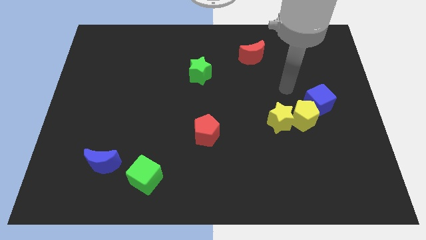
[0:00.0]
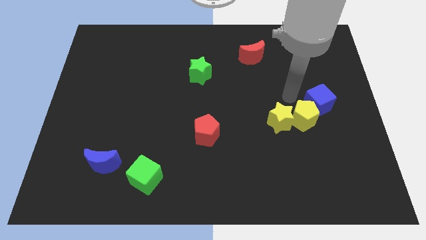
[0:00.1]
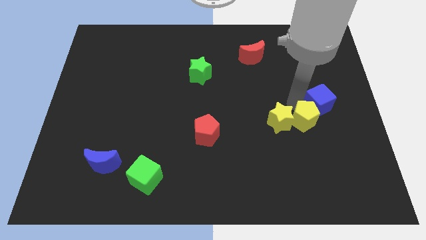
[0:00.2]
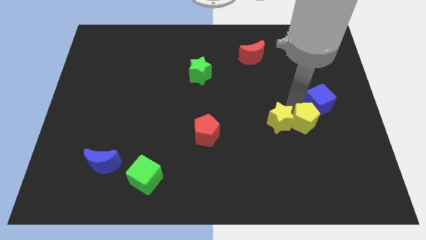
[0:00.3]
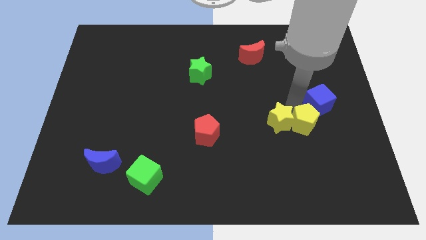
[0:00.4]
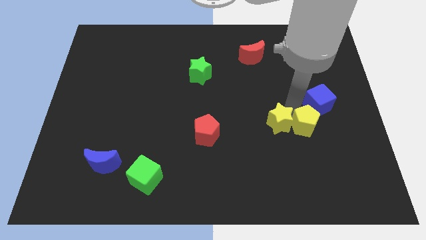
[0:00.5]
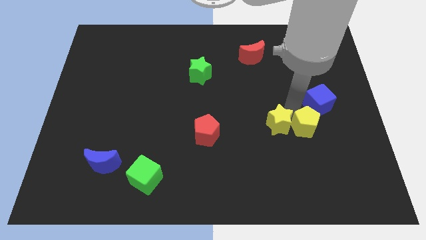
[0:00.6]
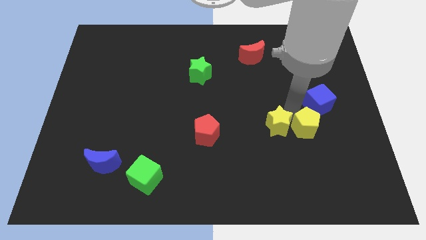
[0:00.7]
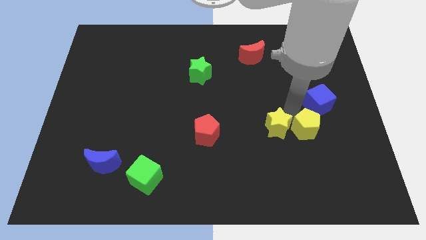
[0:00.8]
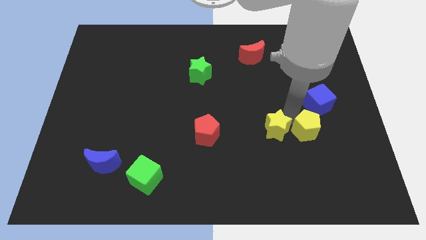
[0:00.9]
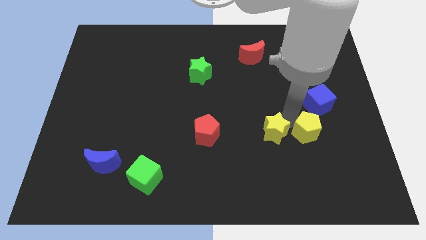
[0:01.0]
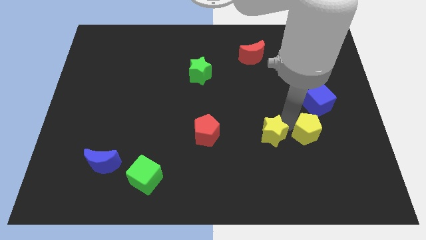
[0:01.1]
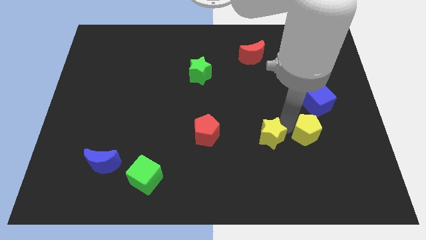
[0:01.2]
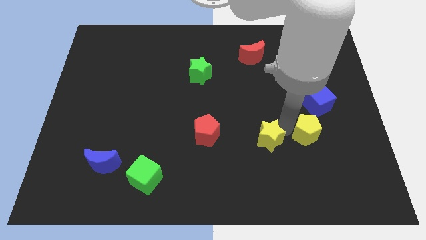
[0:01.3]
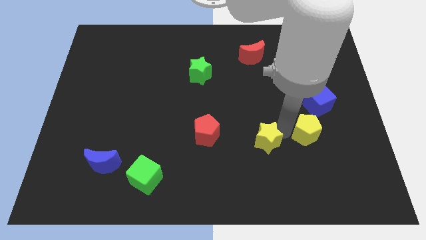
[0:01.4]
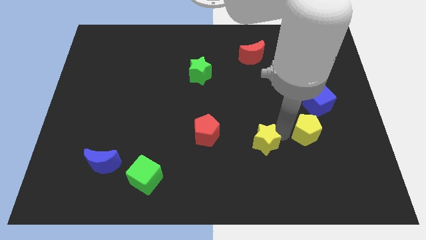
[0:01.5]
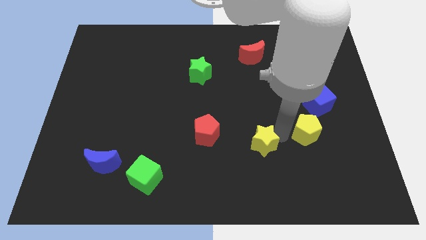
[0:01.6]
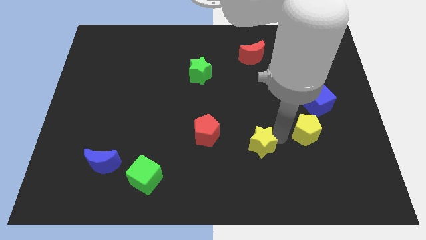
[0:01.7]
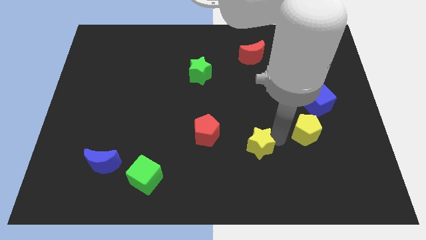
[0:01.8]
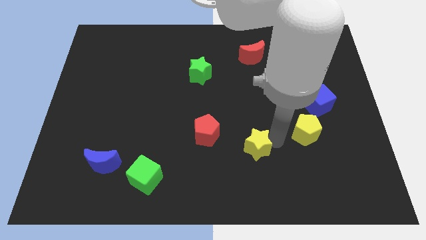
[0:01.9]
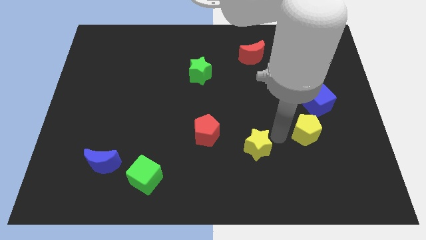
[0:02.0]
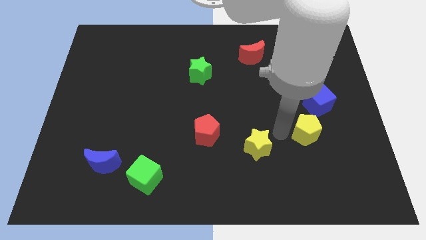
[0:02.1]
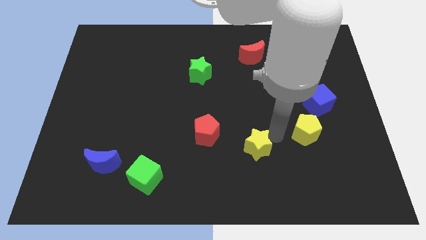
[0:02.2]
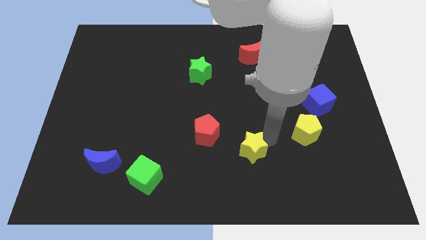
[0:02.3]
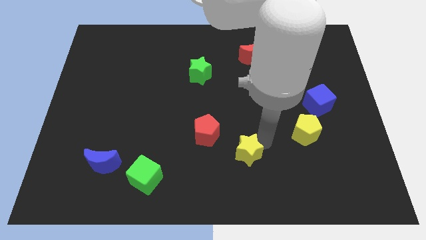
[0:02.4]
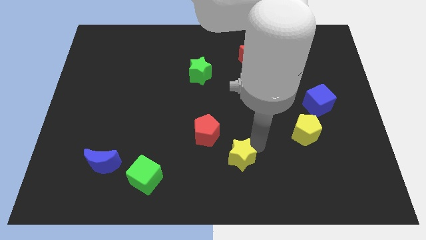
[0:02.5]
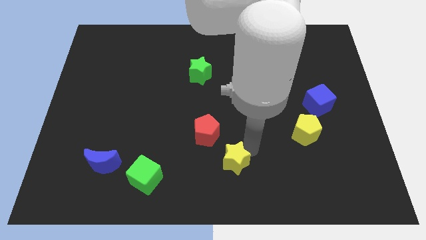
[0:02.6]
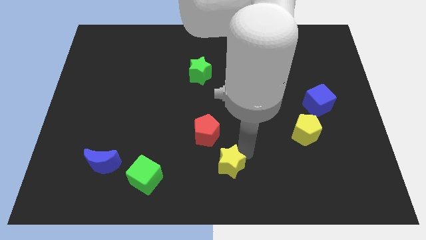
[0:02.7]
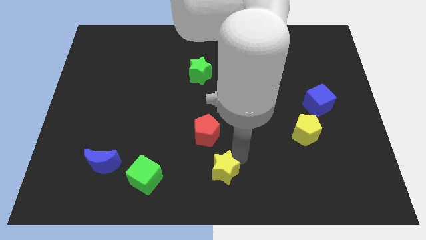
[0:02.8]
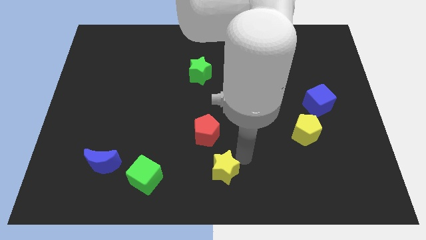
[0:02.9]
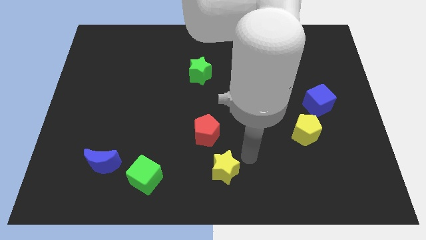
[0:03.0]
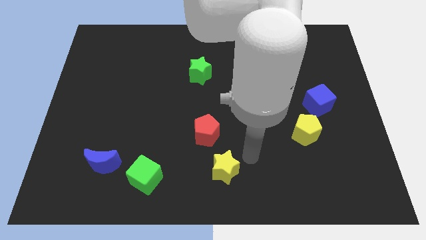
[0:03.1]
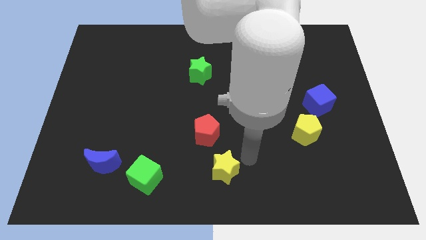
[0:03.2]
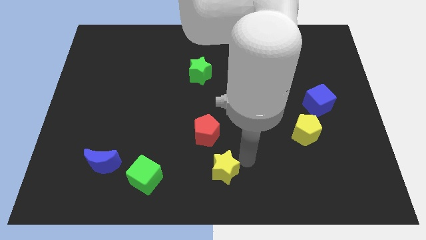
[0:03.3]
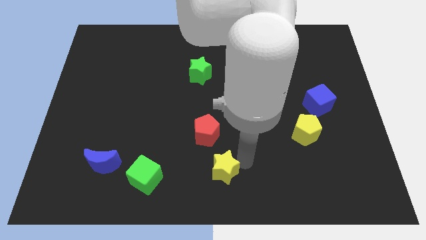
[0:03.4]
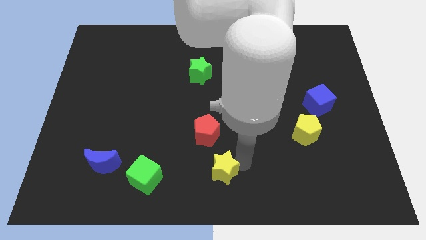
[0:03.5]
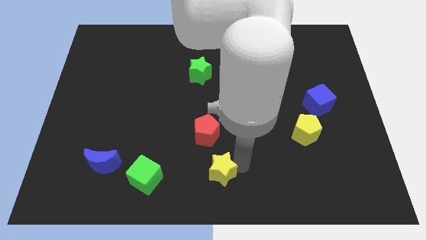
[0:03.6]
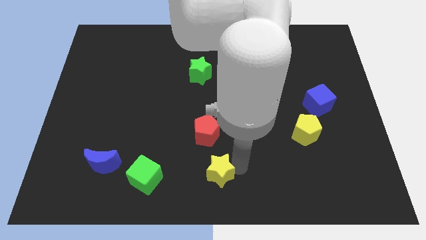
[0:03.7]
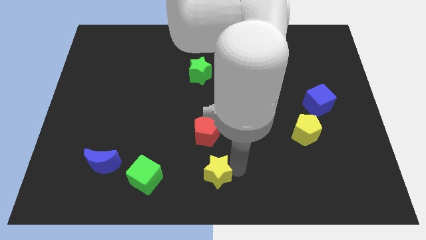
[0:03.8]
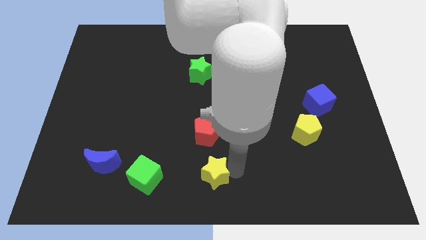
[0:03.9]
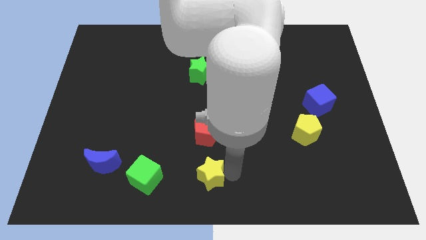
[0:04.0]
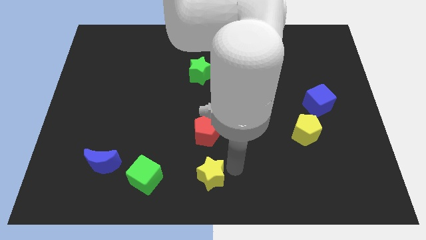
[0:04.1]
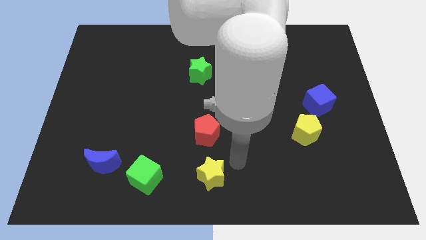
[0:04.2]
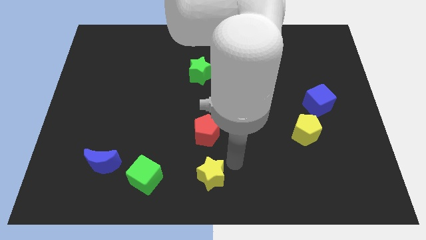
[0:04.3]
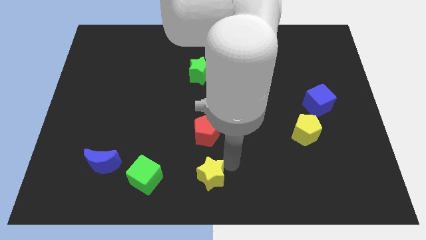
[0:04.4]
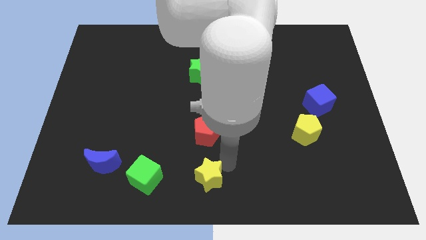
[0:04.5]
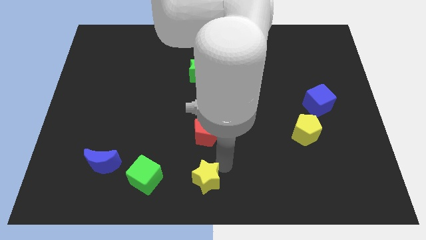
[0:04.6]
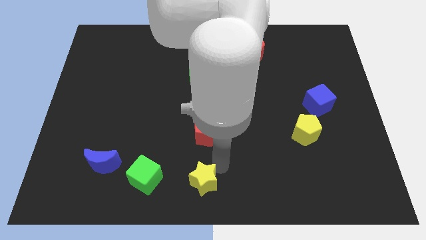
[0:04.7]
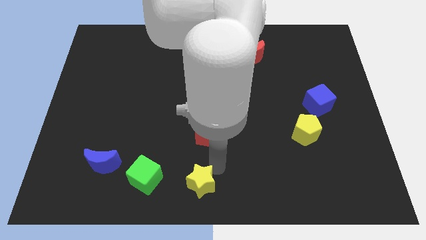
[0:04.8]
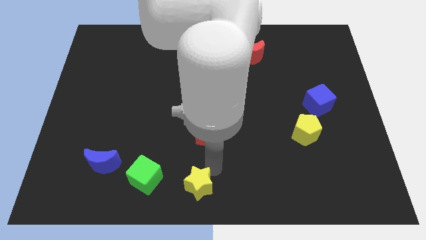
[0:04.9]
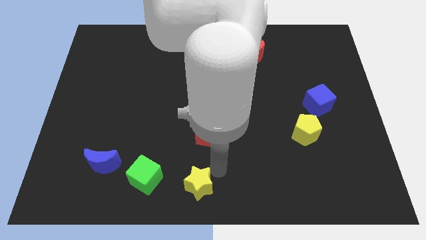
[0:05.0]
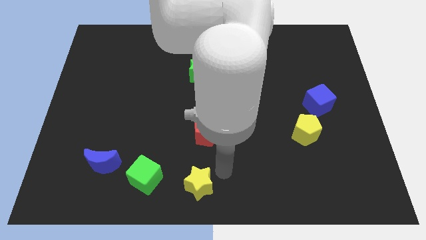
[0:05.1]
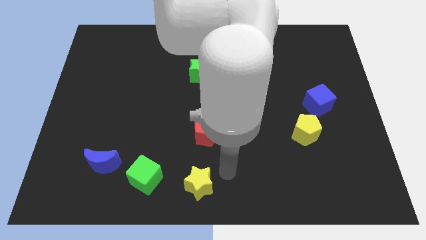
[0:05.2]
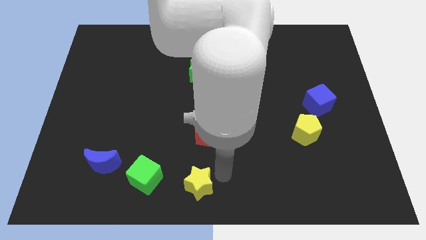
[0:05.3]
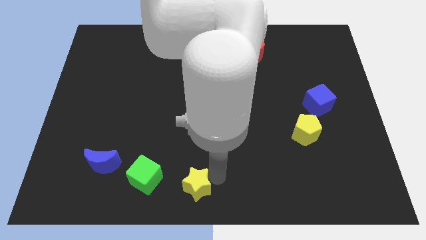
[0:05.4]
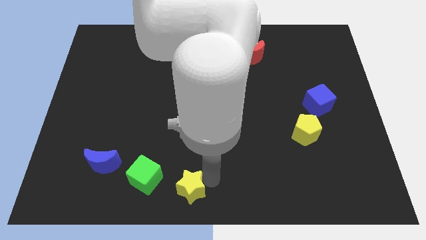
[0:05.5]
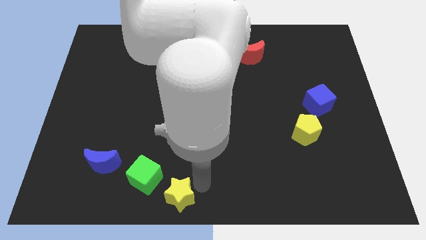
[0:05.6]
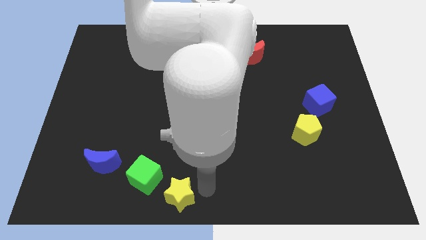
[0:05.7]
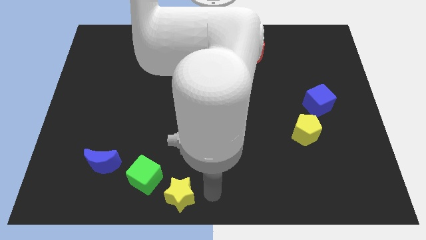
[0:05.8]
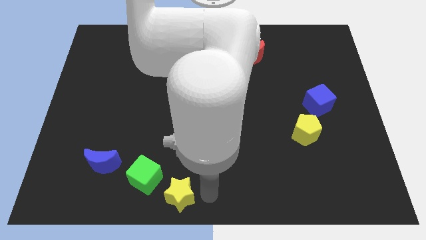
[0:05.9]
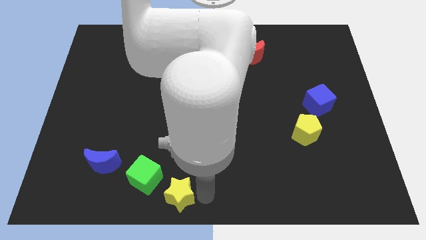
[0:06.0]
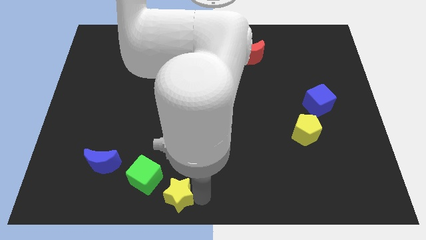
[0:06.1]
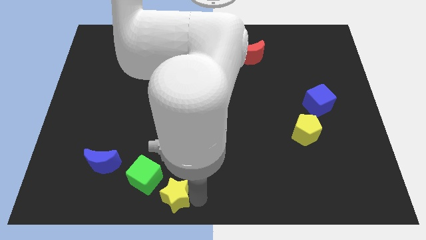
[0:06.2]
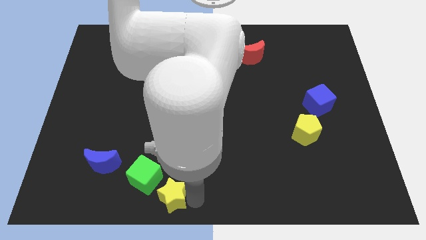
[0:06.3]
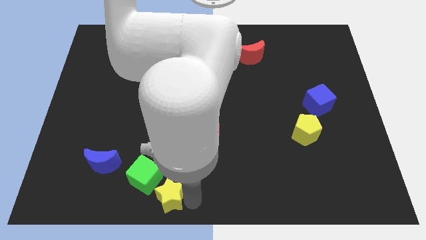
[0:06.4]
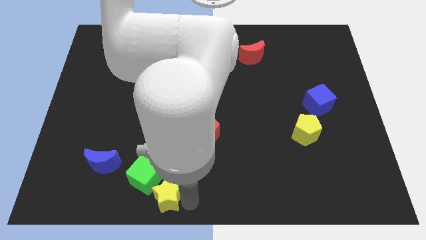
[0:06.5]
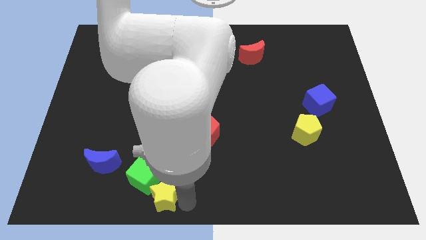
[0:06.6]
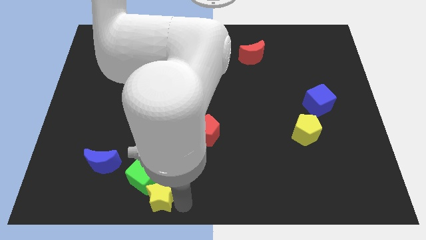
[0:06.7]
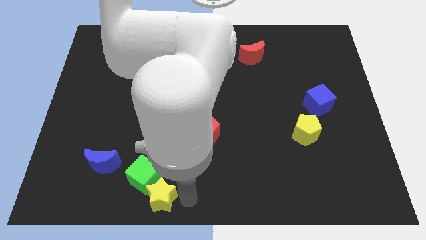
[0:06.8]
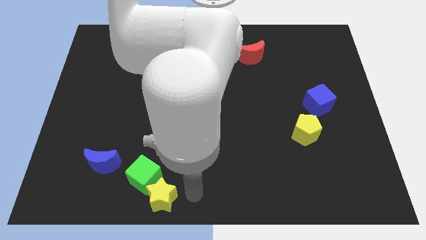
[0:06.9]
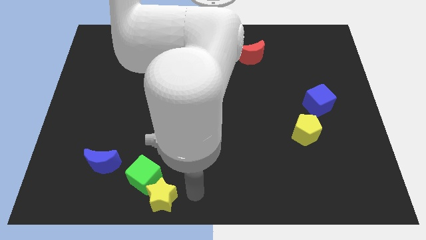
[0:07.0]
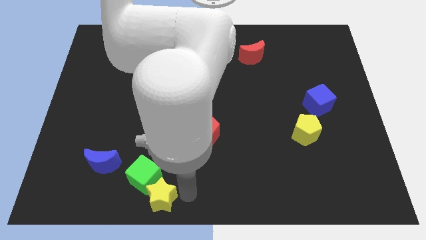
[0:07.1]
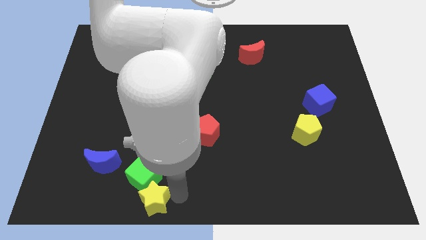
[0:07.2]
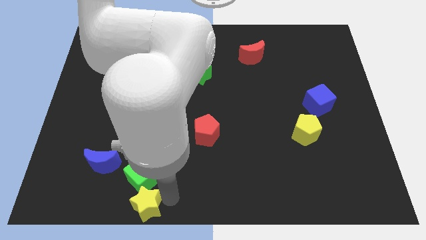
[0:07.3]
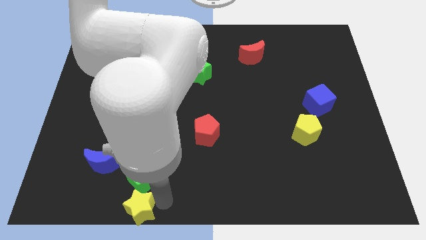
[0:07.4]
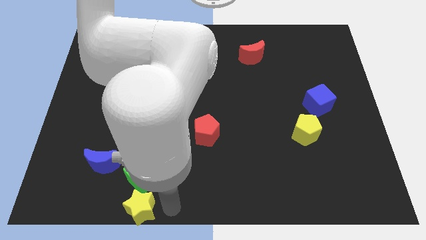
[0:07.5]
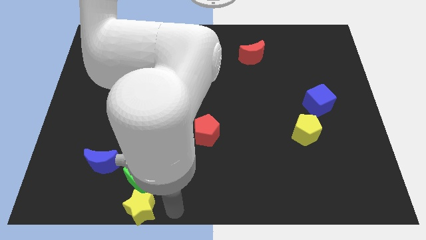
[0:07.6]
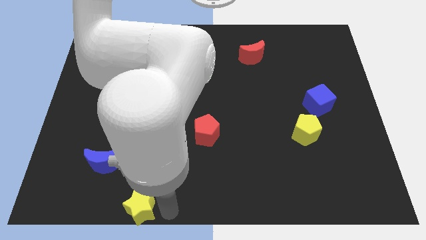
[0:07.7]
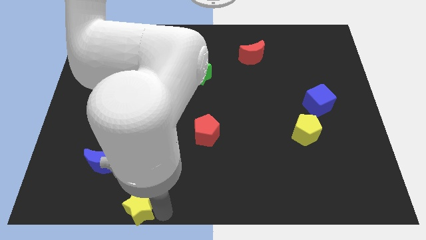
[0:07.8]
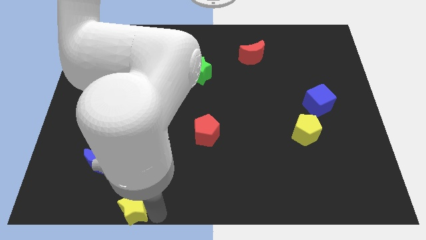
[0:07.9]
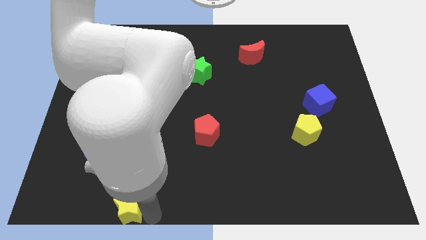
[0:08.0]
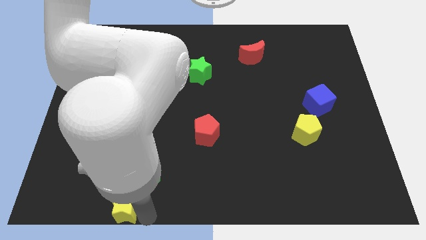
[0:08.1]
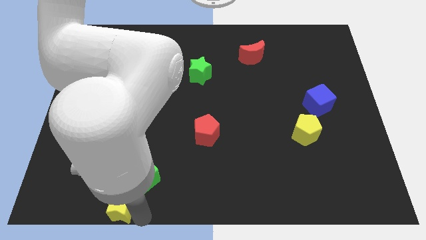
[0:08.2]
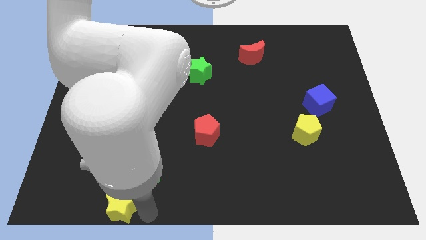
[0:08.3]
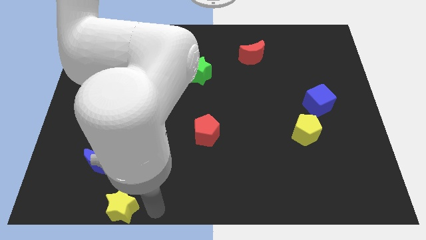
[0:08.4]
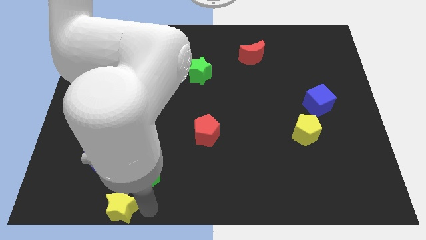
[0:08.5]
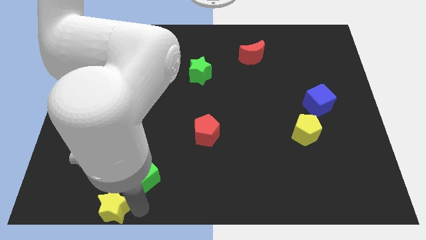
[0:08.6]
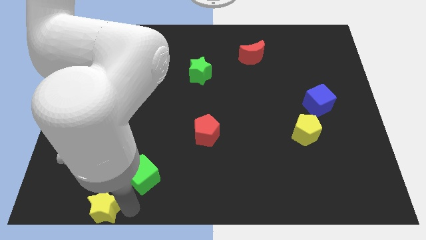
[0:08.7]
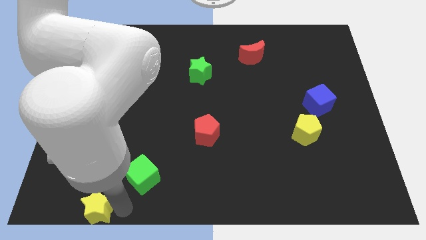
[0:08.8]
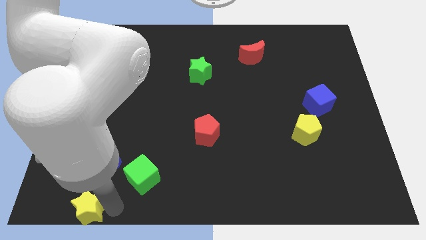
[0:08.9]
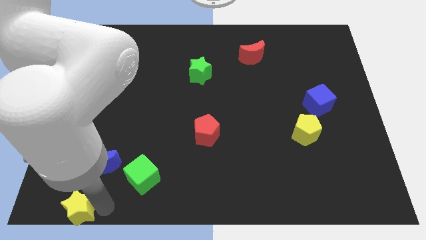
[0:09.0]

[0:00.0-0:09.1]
slide the yellow star to the bottom left
